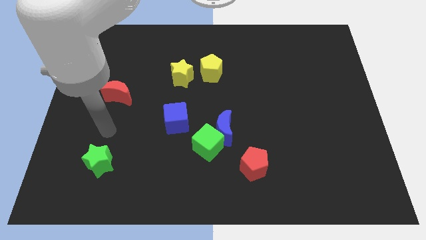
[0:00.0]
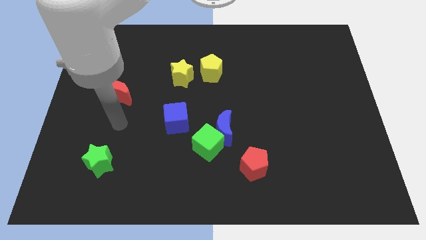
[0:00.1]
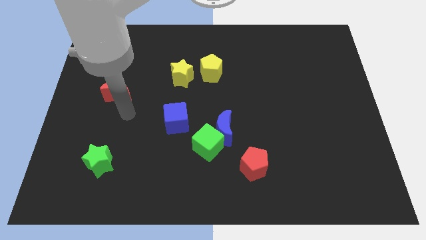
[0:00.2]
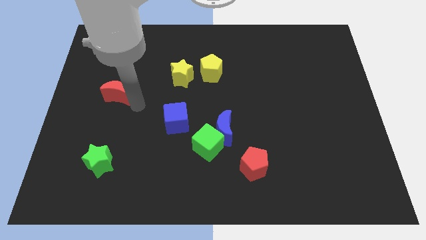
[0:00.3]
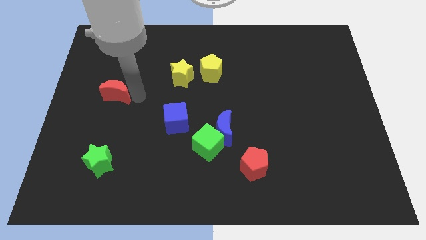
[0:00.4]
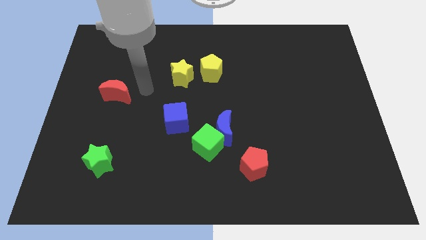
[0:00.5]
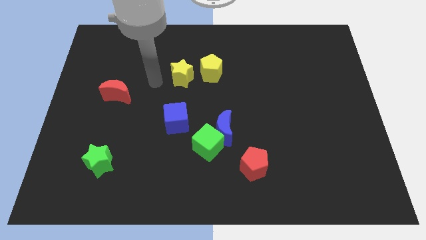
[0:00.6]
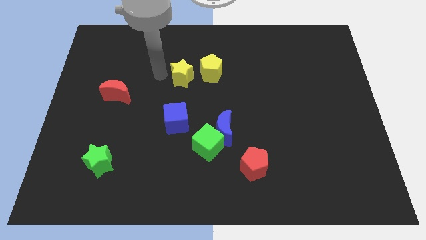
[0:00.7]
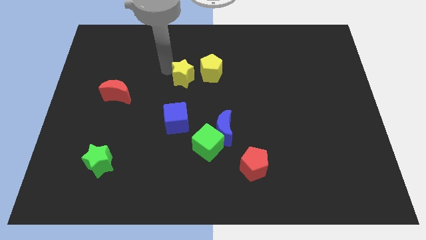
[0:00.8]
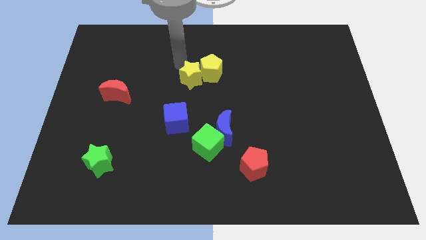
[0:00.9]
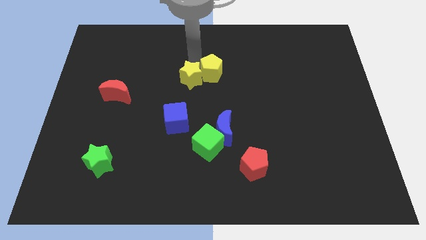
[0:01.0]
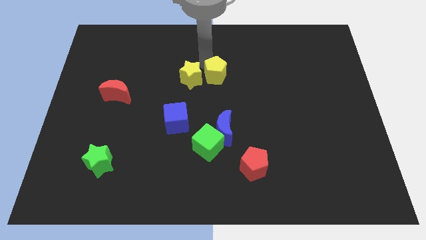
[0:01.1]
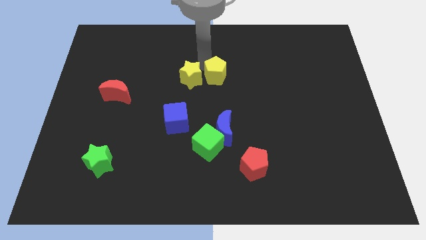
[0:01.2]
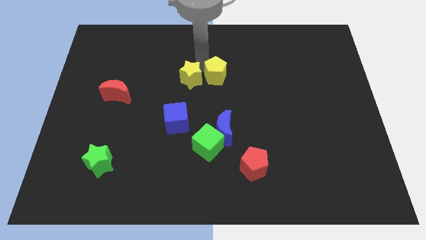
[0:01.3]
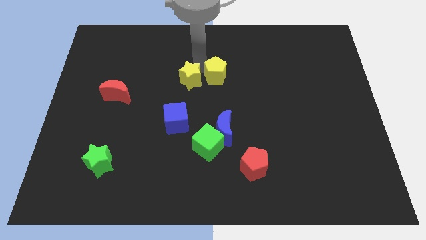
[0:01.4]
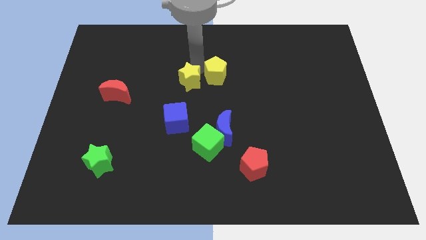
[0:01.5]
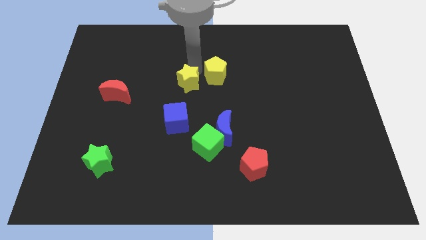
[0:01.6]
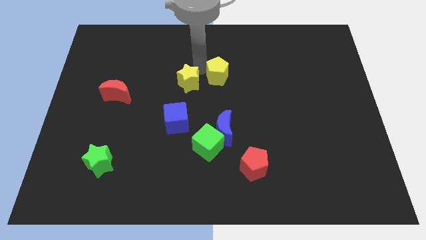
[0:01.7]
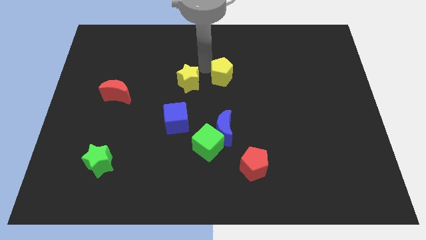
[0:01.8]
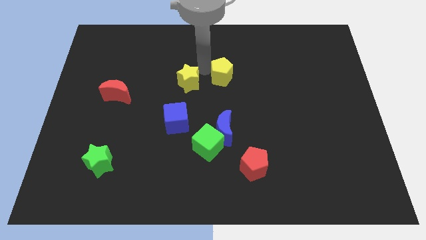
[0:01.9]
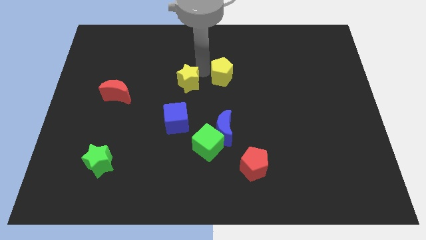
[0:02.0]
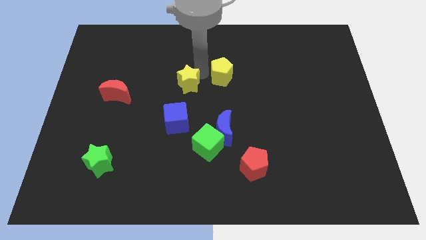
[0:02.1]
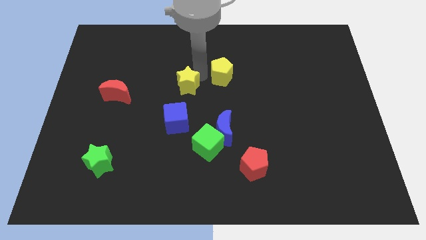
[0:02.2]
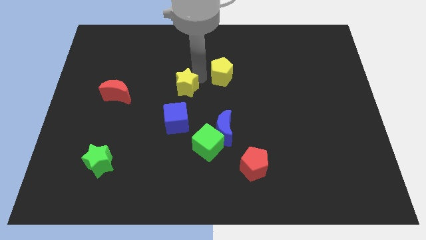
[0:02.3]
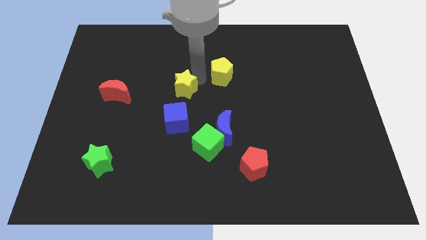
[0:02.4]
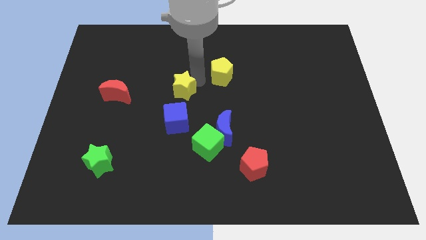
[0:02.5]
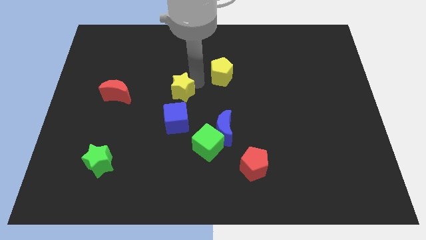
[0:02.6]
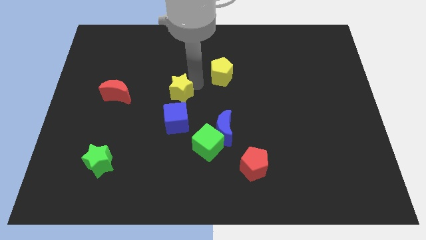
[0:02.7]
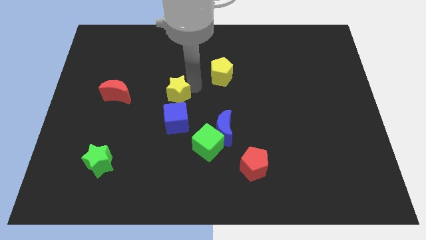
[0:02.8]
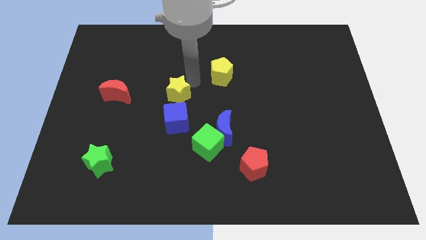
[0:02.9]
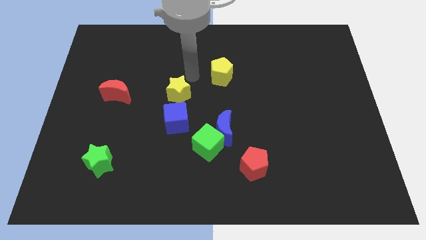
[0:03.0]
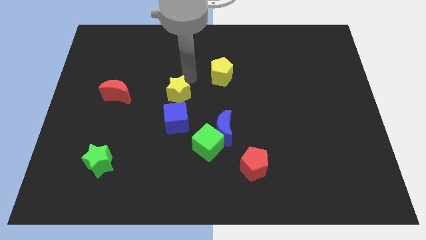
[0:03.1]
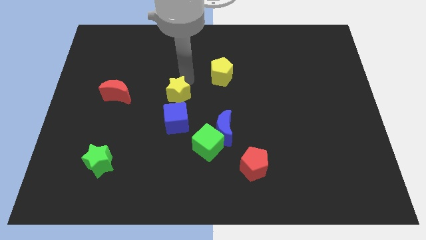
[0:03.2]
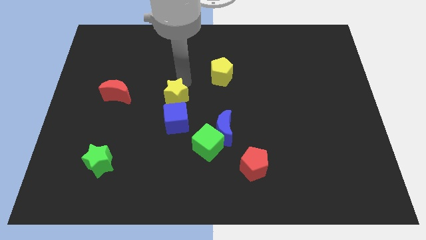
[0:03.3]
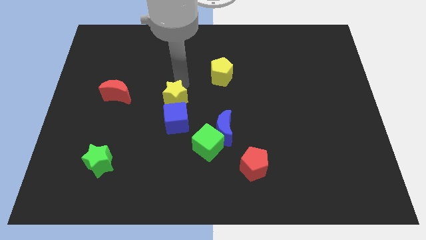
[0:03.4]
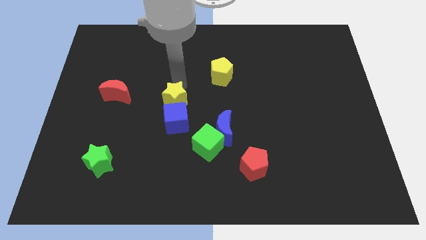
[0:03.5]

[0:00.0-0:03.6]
move the yellow star a bit downwards

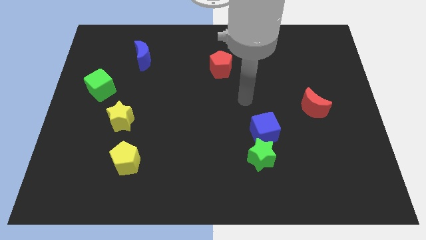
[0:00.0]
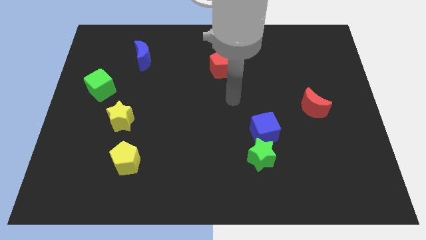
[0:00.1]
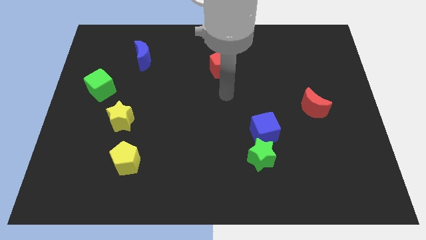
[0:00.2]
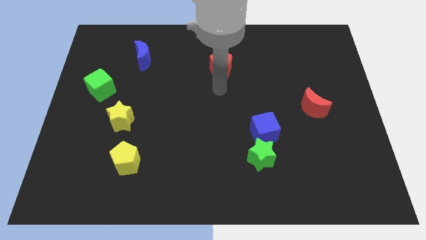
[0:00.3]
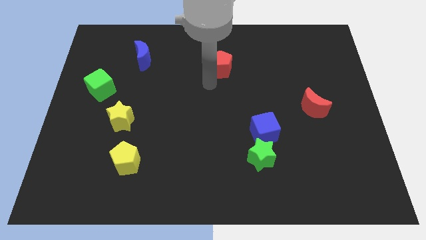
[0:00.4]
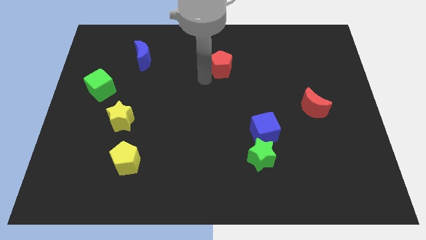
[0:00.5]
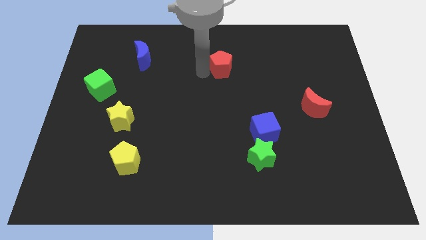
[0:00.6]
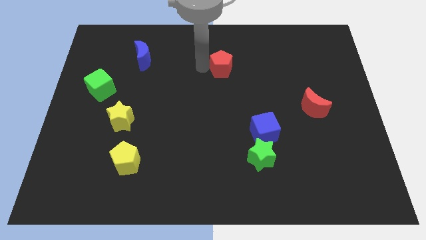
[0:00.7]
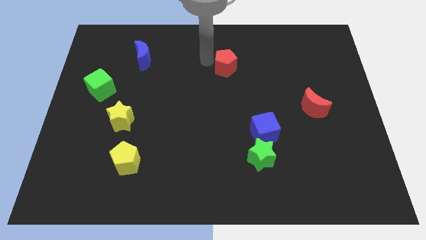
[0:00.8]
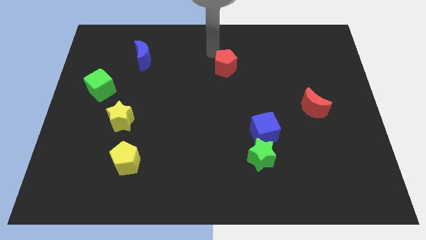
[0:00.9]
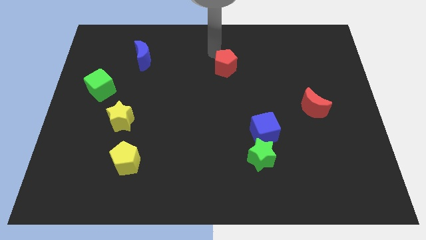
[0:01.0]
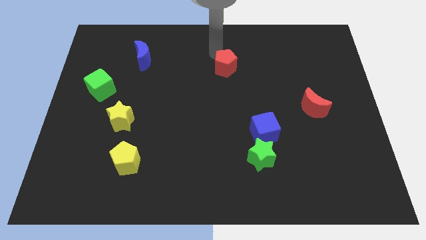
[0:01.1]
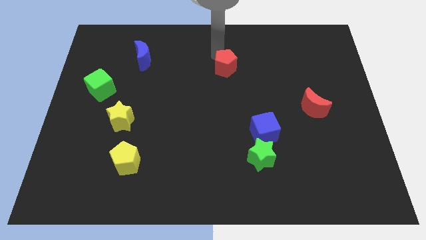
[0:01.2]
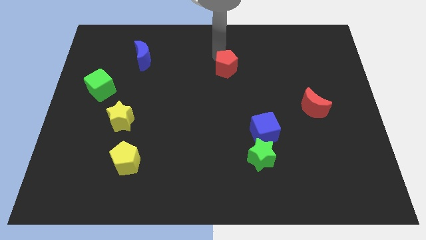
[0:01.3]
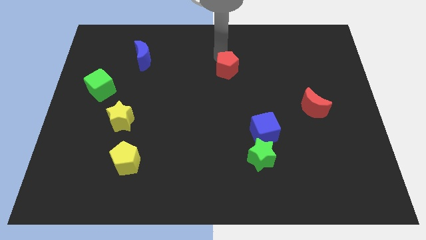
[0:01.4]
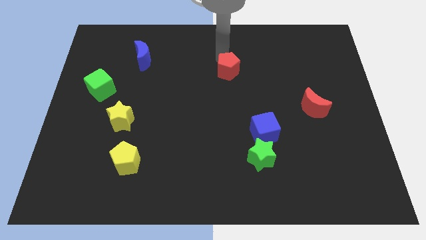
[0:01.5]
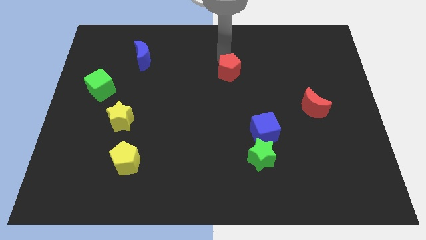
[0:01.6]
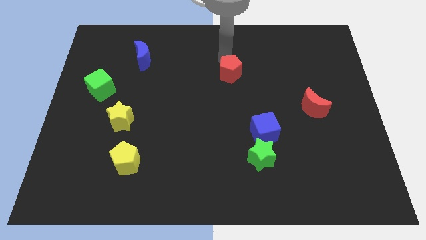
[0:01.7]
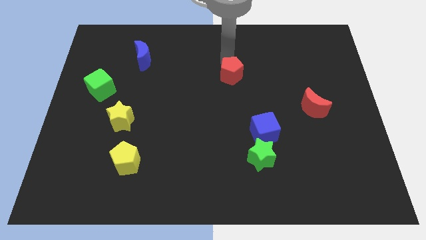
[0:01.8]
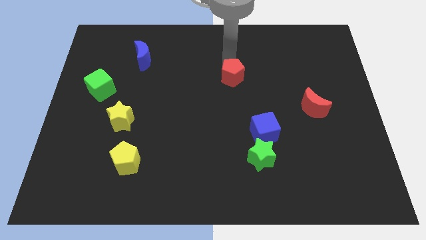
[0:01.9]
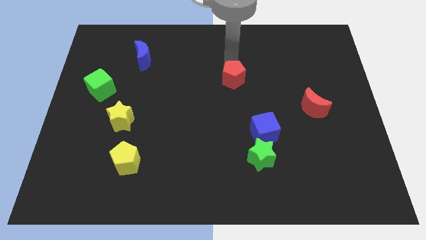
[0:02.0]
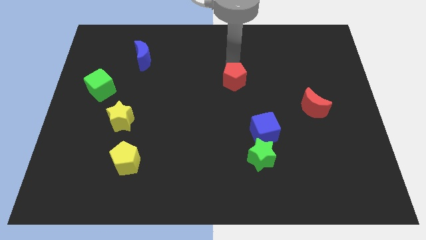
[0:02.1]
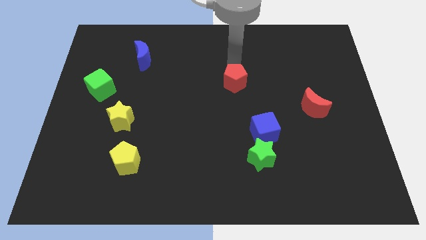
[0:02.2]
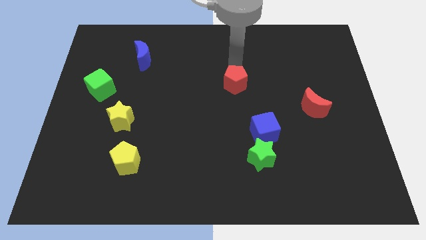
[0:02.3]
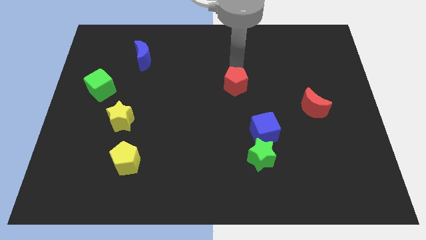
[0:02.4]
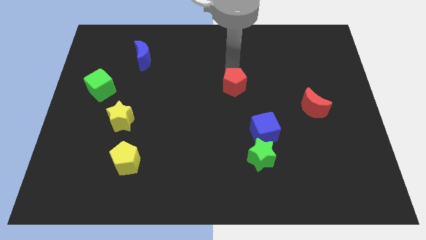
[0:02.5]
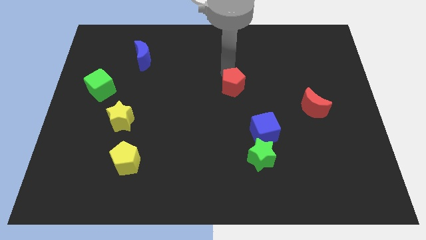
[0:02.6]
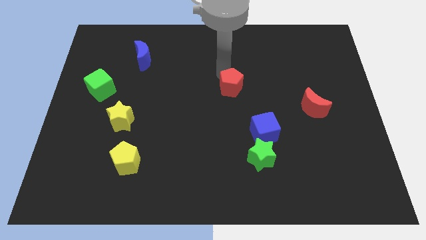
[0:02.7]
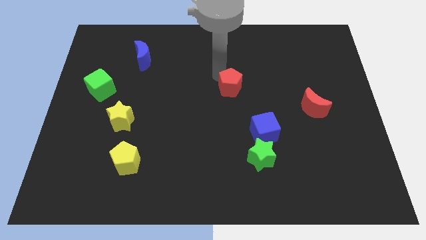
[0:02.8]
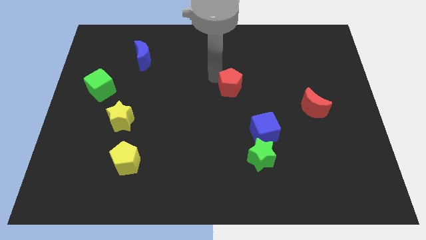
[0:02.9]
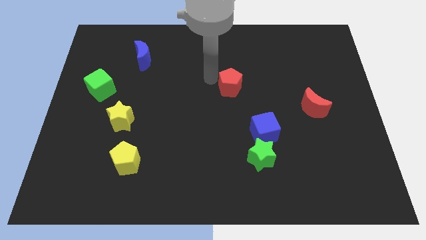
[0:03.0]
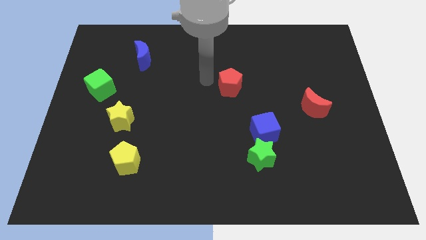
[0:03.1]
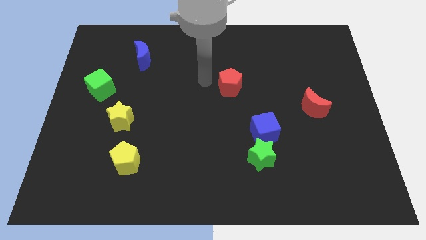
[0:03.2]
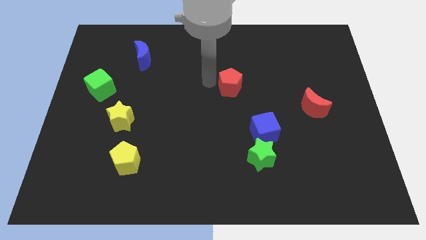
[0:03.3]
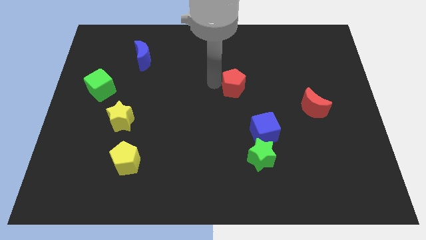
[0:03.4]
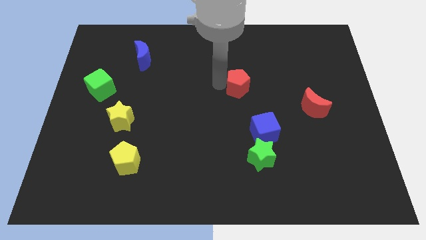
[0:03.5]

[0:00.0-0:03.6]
slightly slide the red pentagon diagonally downwards and right

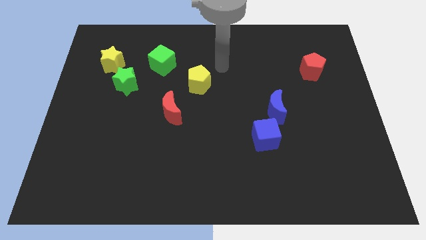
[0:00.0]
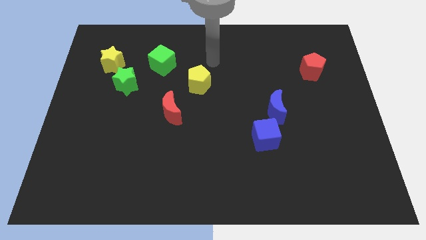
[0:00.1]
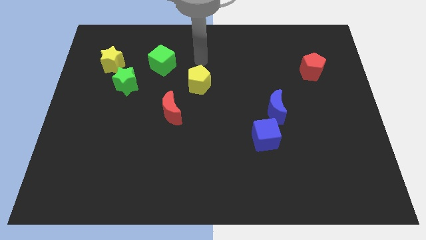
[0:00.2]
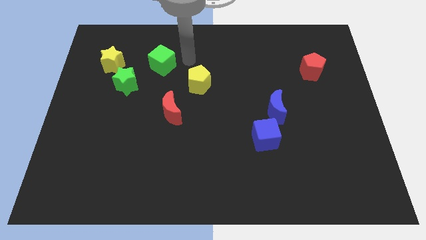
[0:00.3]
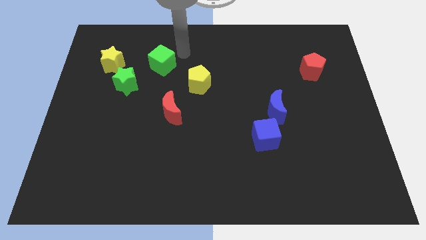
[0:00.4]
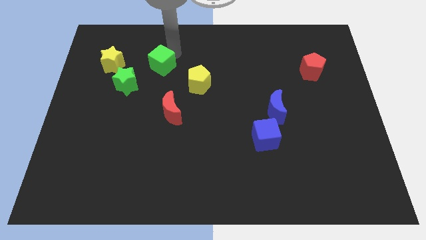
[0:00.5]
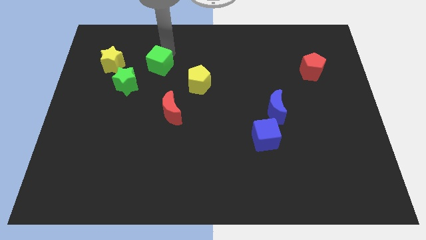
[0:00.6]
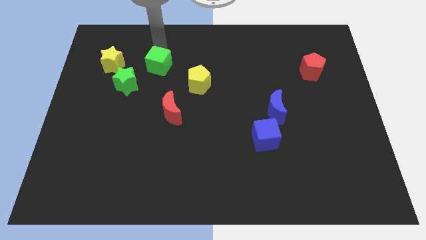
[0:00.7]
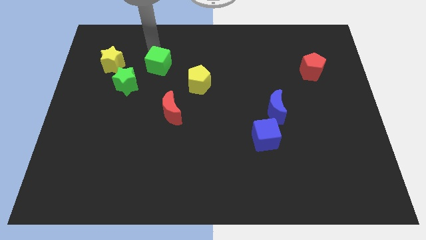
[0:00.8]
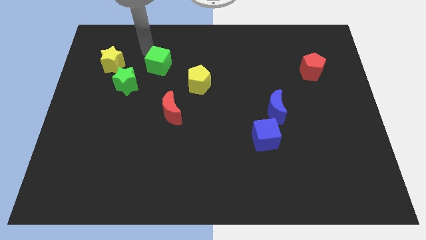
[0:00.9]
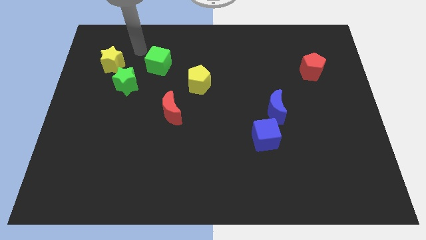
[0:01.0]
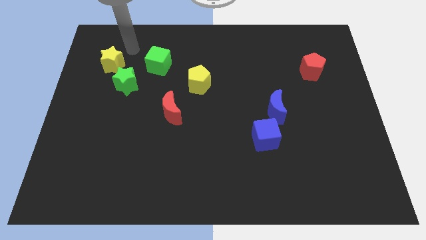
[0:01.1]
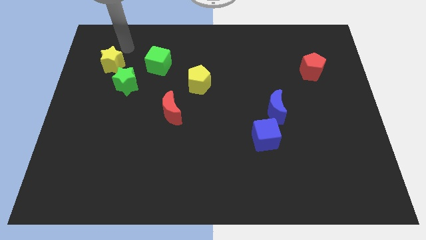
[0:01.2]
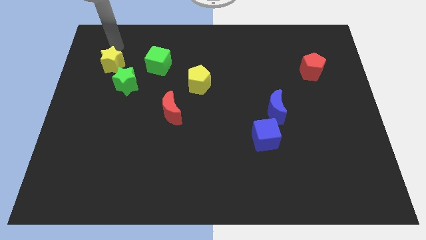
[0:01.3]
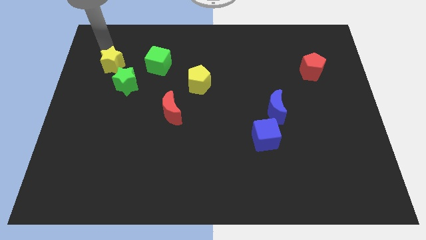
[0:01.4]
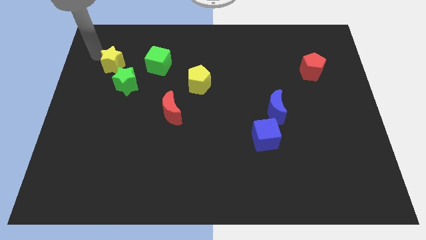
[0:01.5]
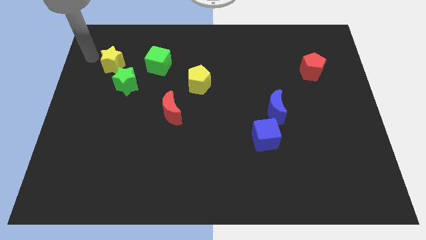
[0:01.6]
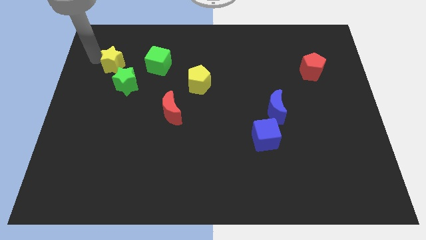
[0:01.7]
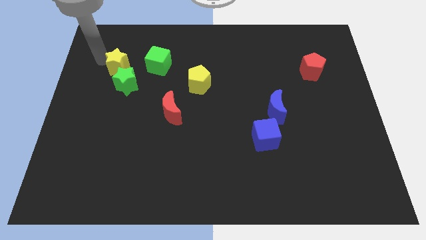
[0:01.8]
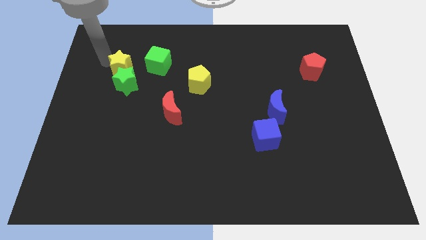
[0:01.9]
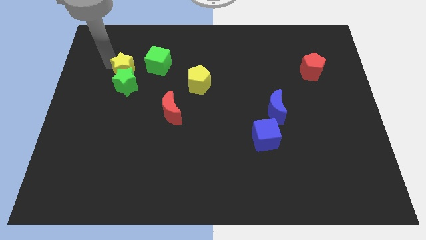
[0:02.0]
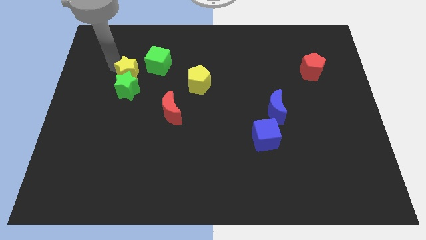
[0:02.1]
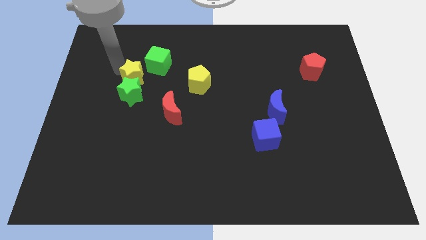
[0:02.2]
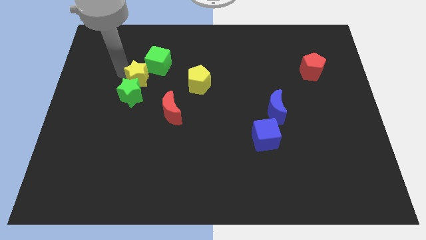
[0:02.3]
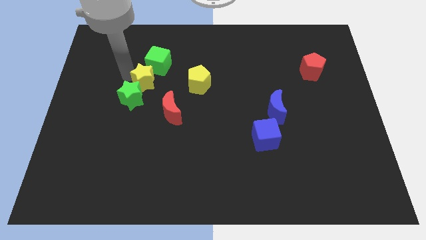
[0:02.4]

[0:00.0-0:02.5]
slightly move the yellow star to the right
